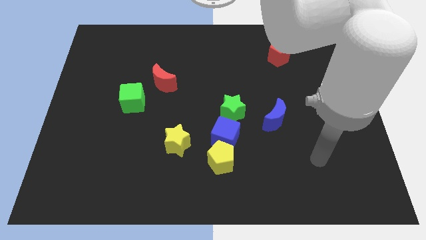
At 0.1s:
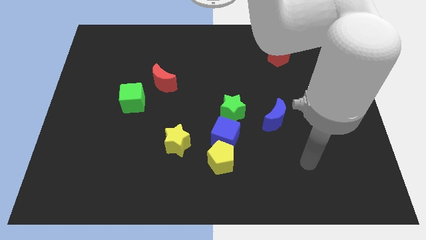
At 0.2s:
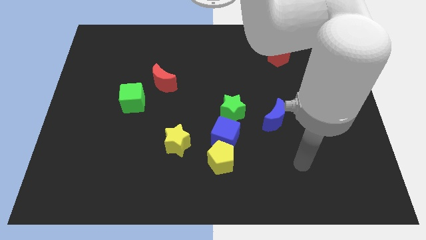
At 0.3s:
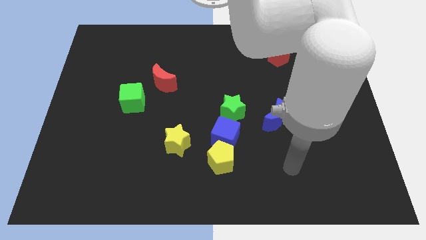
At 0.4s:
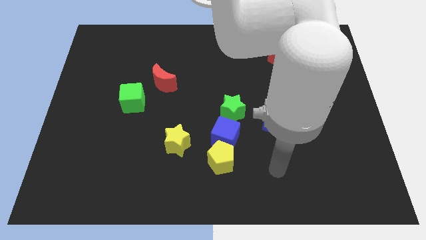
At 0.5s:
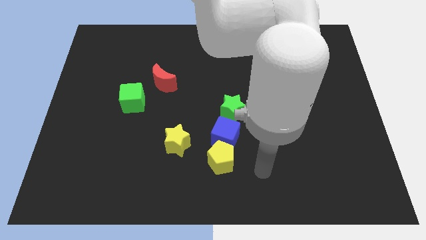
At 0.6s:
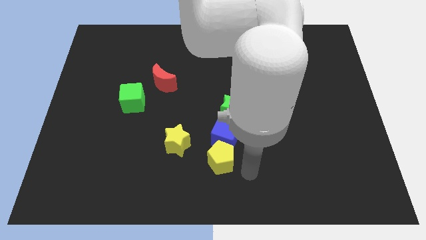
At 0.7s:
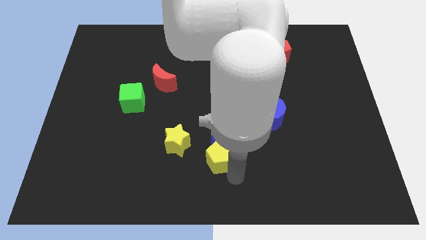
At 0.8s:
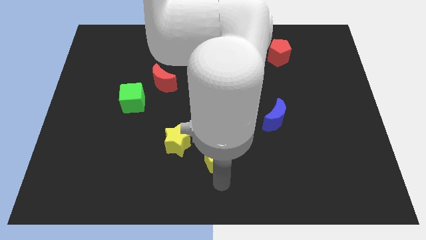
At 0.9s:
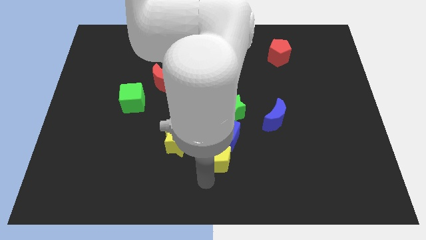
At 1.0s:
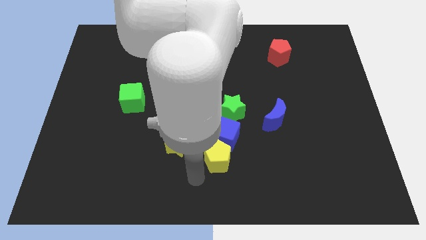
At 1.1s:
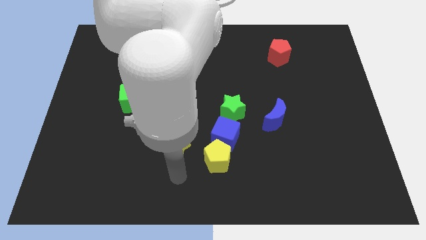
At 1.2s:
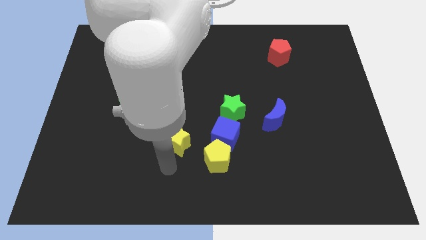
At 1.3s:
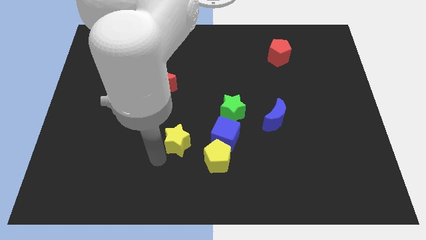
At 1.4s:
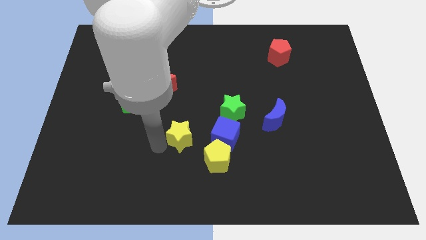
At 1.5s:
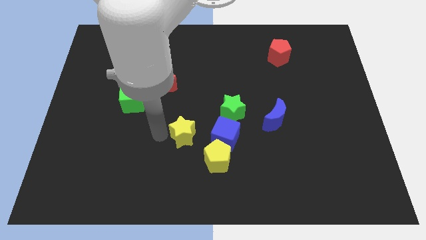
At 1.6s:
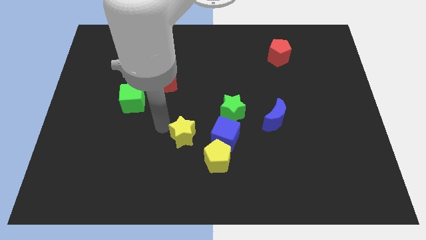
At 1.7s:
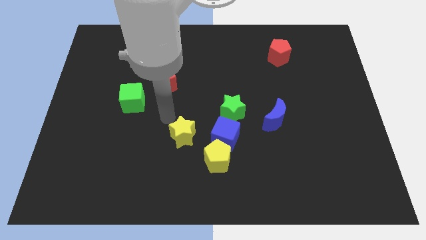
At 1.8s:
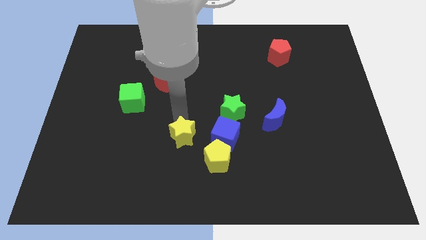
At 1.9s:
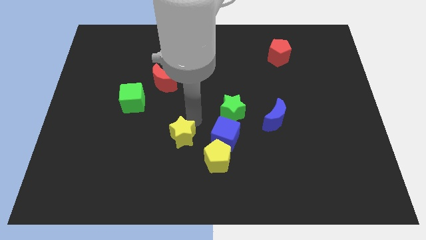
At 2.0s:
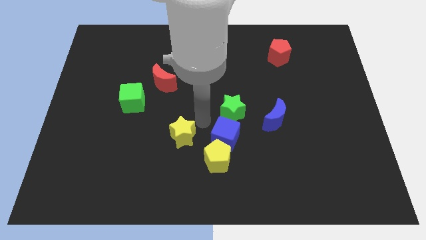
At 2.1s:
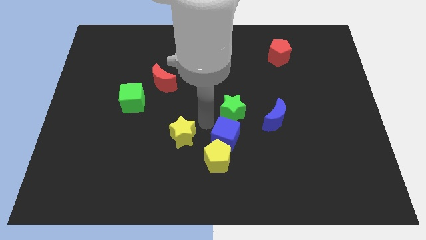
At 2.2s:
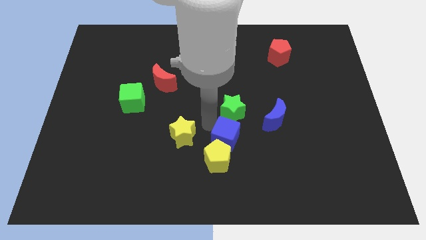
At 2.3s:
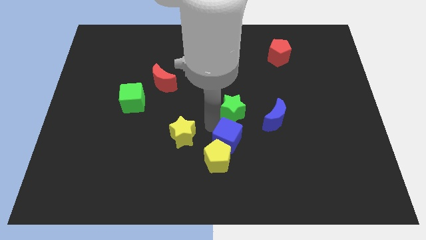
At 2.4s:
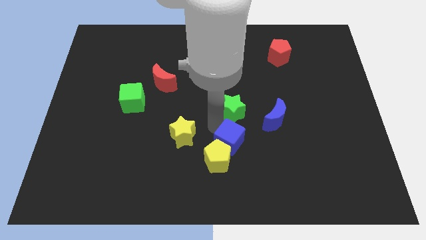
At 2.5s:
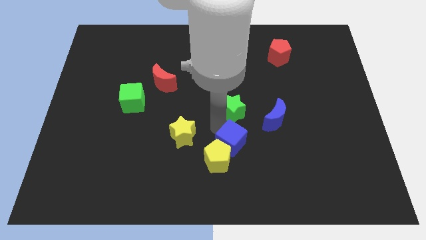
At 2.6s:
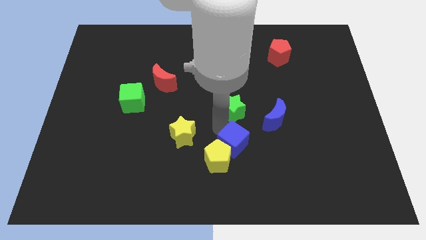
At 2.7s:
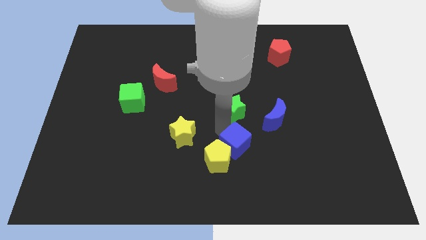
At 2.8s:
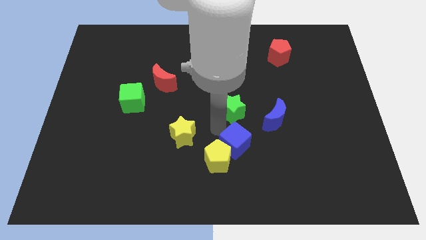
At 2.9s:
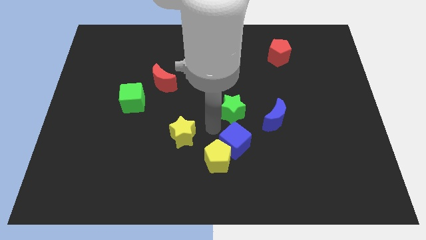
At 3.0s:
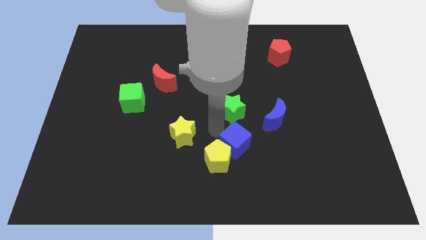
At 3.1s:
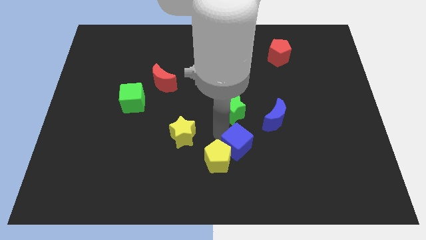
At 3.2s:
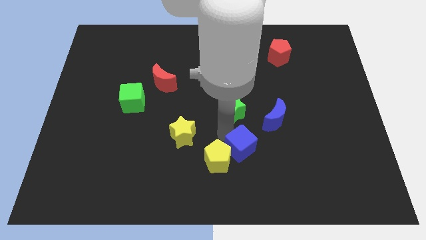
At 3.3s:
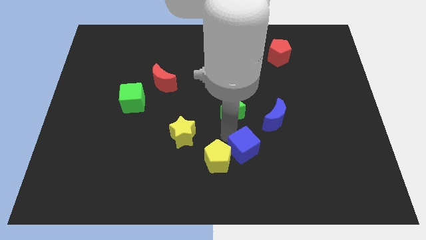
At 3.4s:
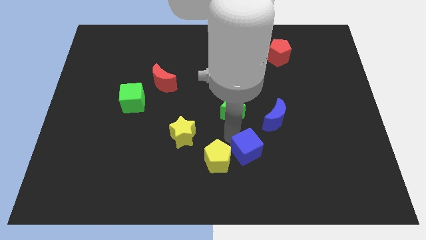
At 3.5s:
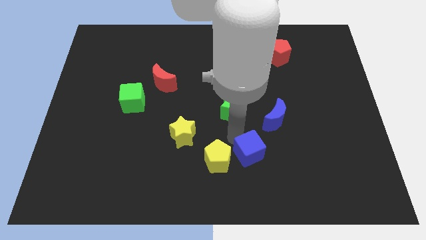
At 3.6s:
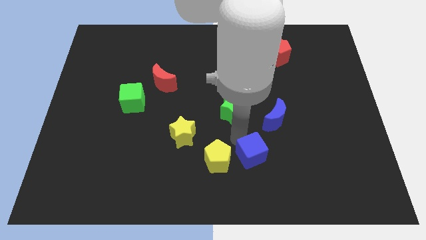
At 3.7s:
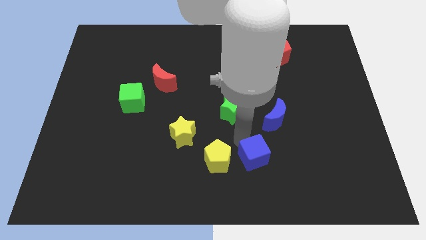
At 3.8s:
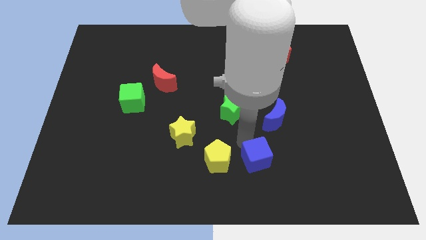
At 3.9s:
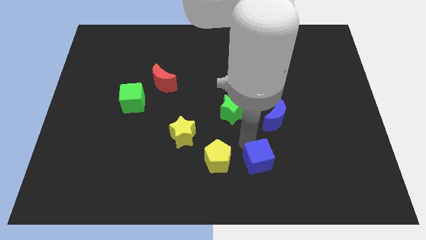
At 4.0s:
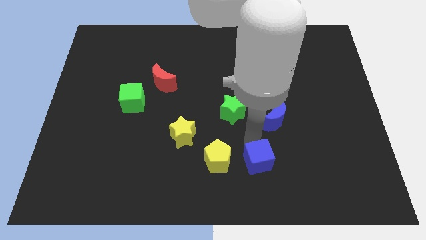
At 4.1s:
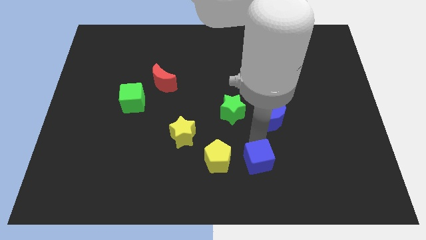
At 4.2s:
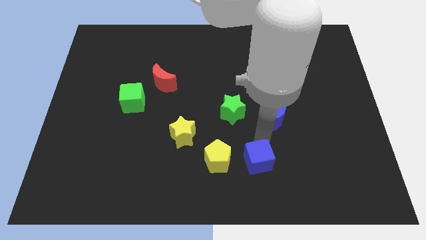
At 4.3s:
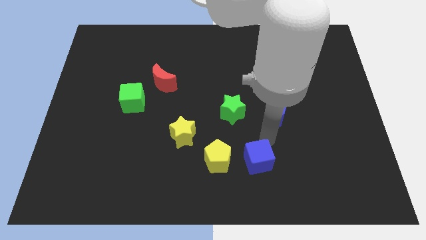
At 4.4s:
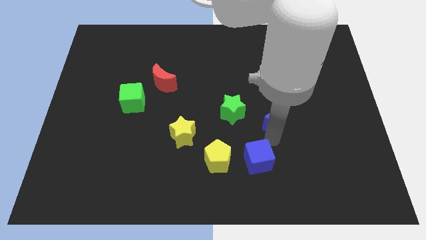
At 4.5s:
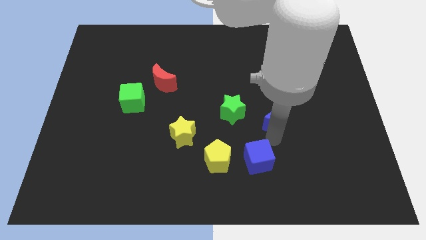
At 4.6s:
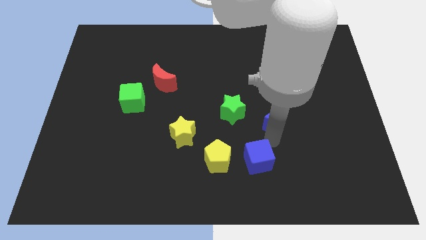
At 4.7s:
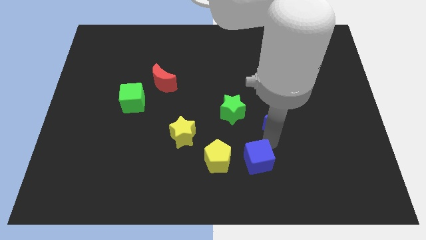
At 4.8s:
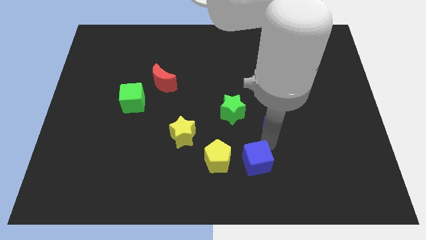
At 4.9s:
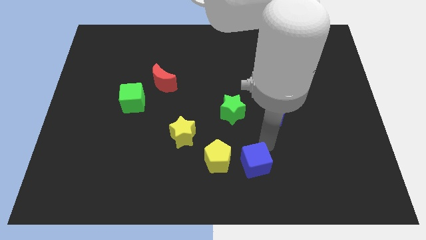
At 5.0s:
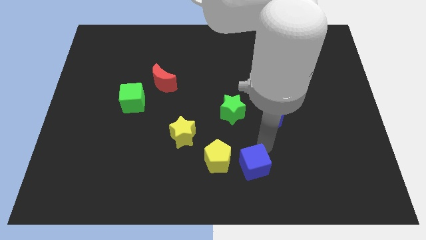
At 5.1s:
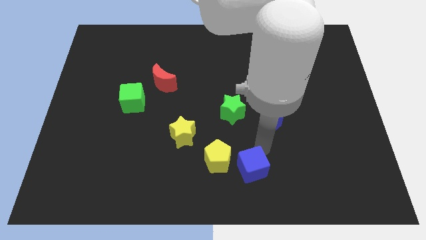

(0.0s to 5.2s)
separate the blue cube from the yellow pentagon and green star

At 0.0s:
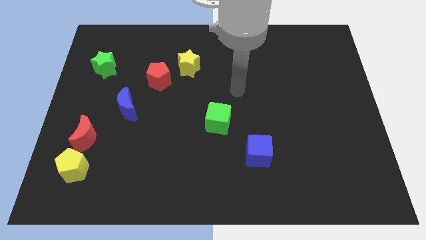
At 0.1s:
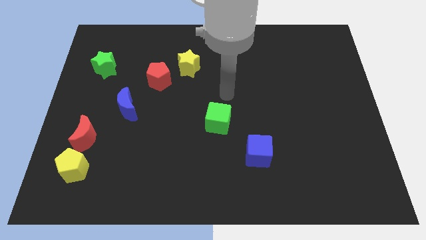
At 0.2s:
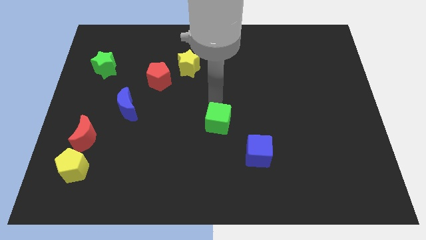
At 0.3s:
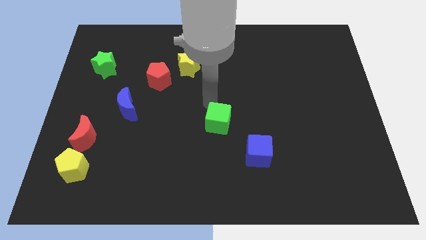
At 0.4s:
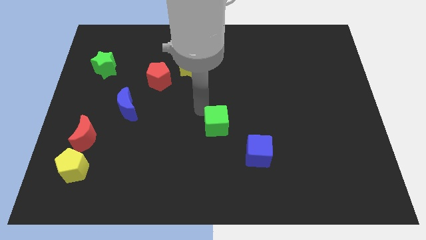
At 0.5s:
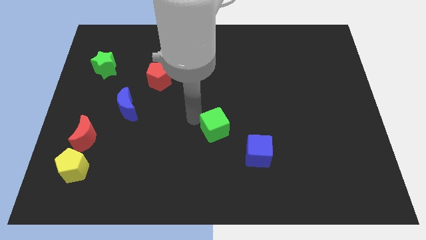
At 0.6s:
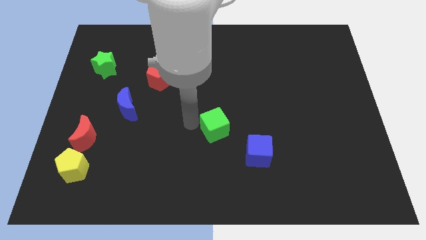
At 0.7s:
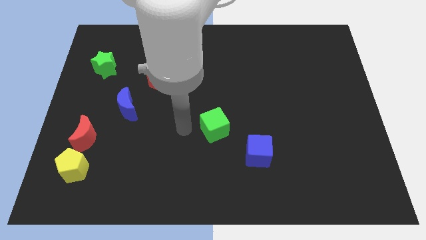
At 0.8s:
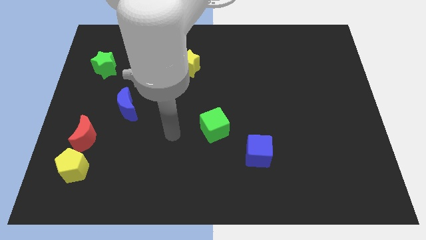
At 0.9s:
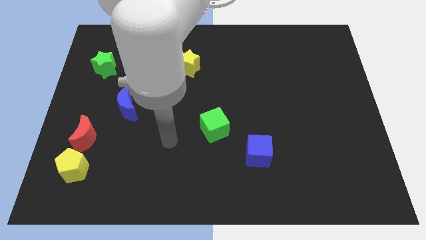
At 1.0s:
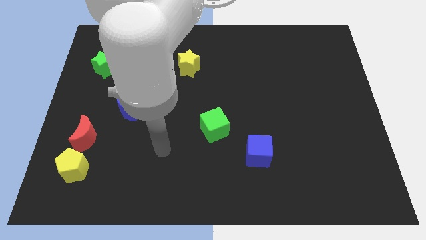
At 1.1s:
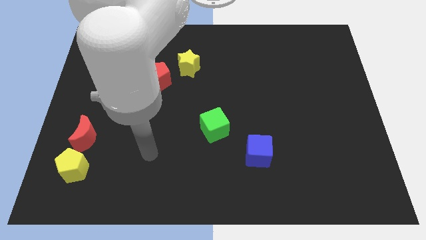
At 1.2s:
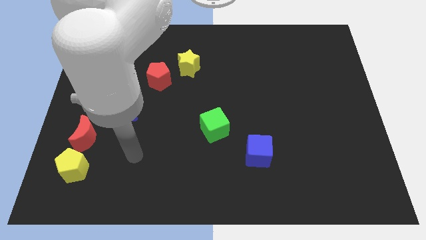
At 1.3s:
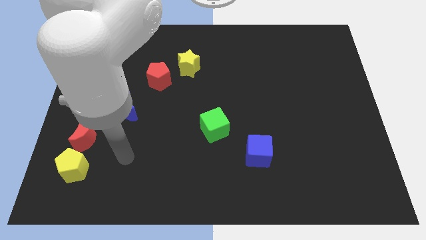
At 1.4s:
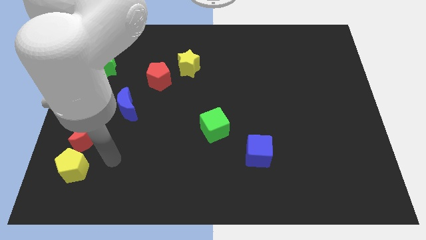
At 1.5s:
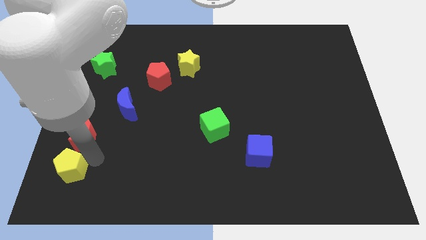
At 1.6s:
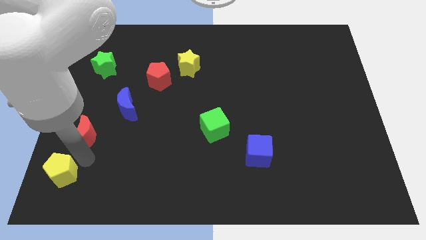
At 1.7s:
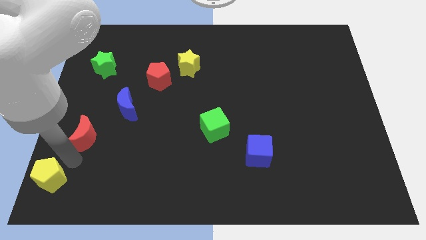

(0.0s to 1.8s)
pull the red moon apart from the yellow pentagon

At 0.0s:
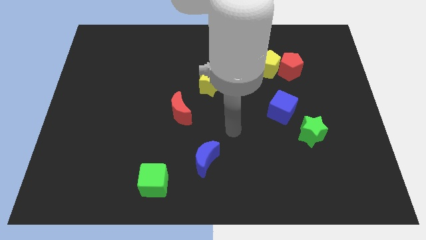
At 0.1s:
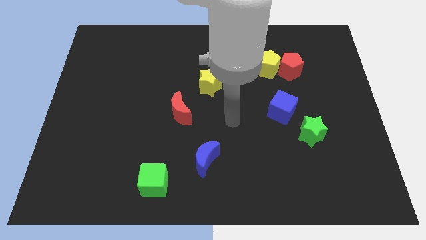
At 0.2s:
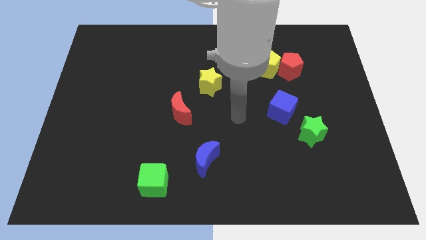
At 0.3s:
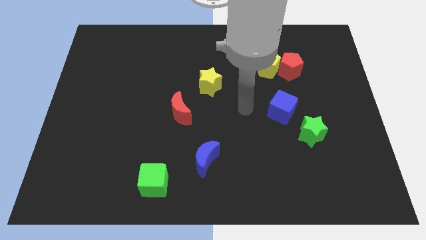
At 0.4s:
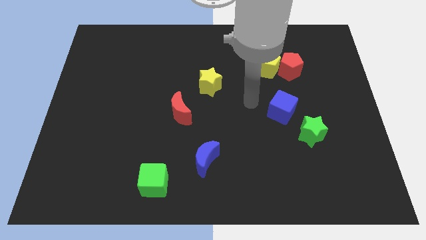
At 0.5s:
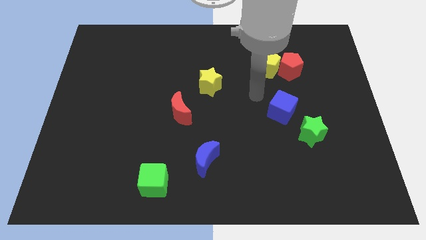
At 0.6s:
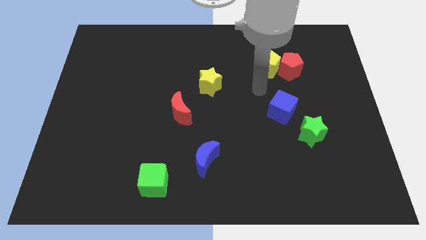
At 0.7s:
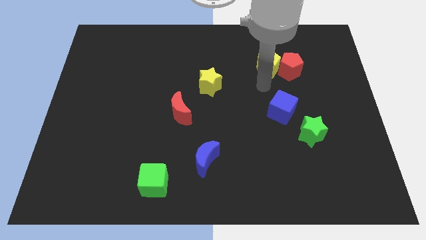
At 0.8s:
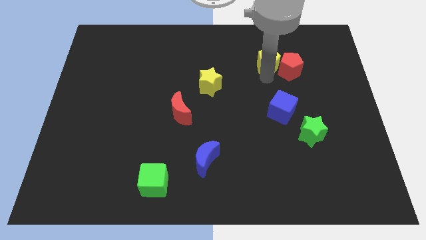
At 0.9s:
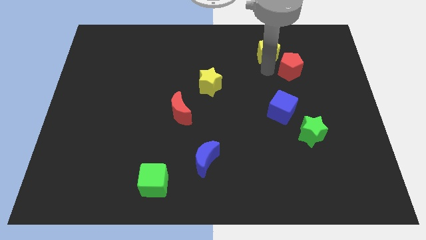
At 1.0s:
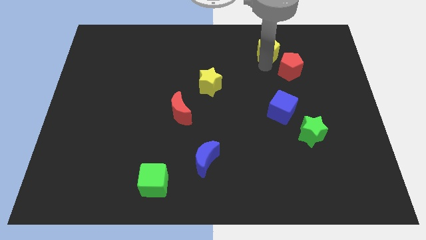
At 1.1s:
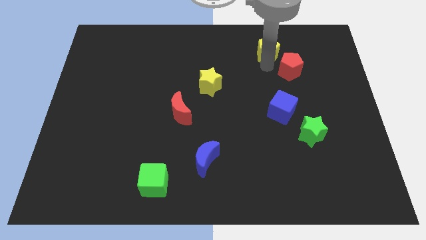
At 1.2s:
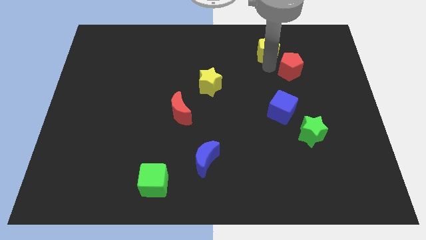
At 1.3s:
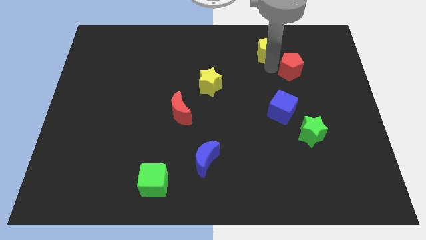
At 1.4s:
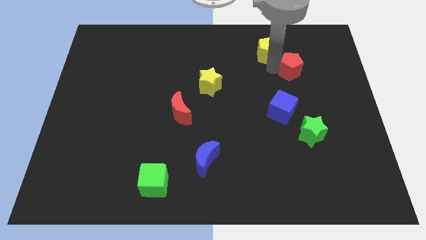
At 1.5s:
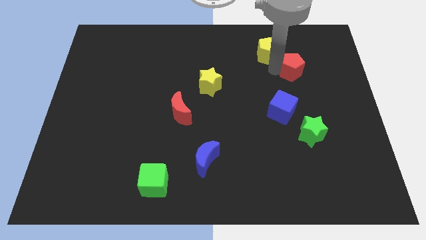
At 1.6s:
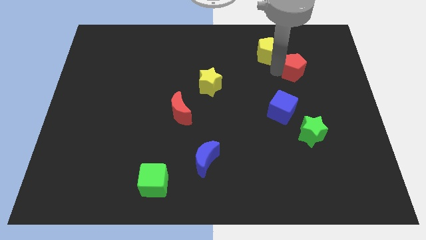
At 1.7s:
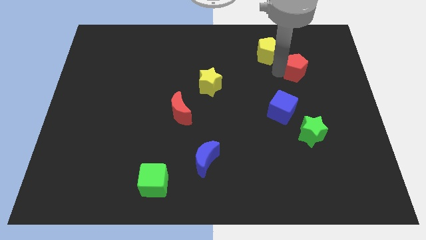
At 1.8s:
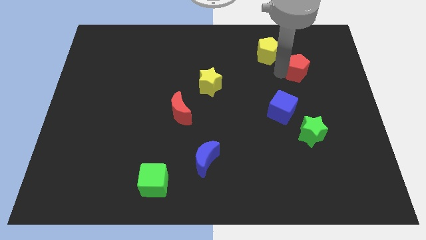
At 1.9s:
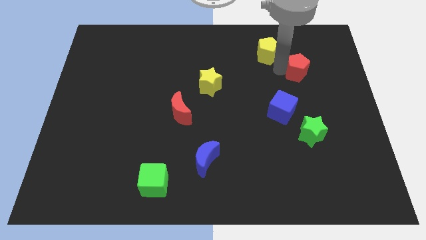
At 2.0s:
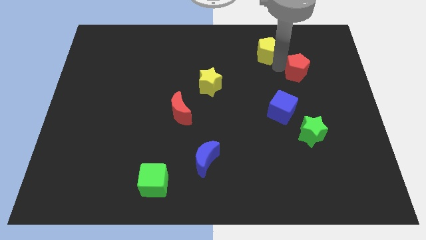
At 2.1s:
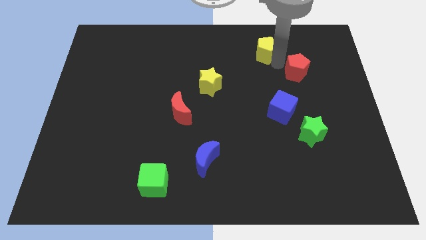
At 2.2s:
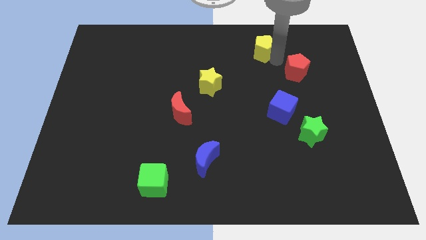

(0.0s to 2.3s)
move the red pentagon away from the yellow pentagon

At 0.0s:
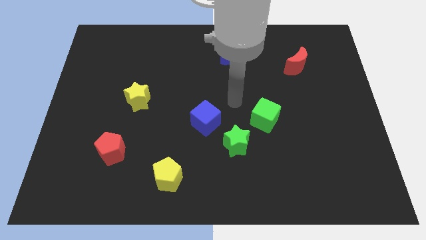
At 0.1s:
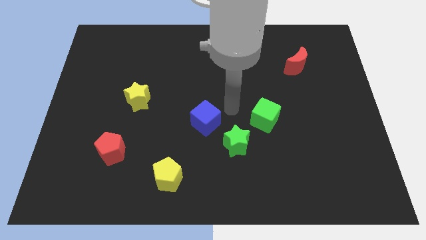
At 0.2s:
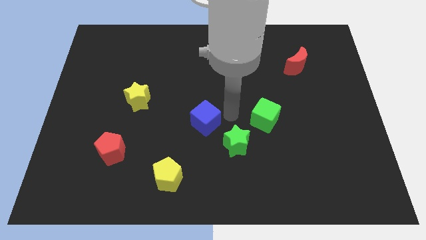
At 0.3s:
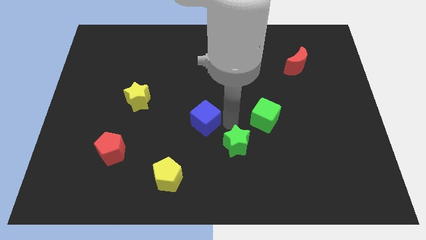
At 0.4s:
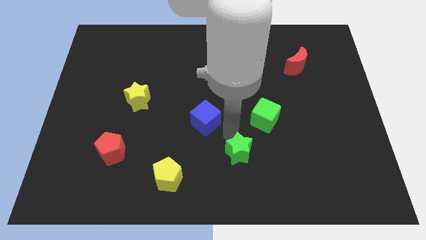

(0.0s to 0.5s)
move the blue cube away from the green star
